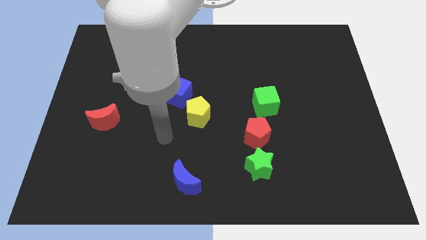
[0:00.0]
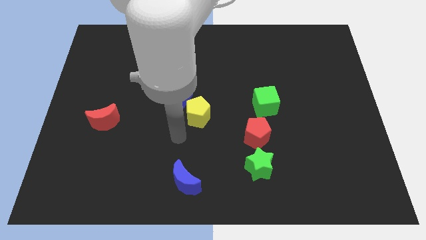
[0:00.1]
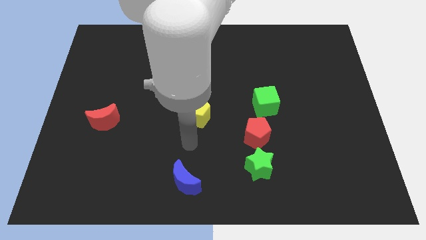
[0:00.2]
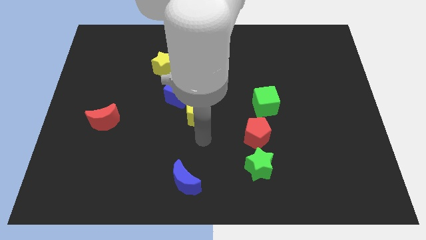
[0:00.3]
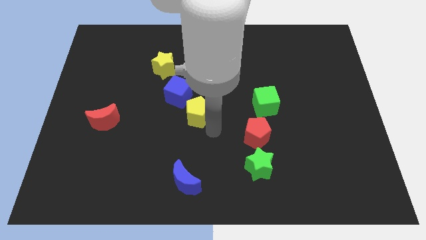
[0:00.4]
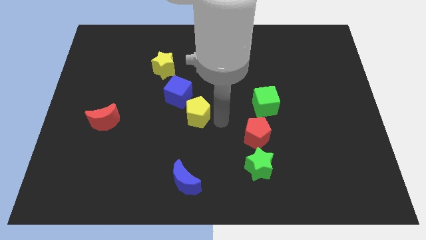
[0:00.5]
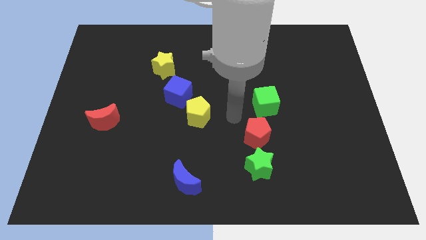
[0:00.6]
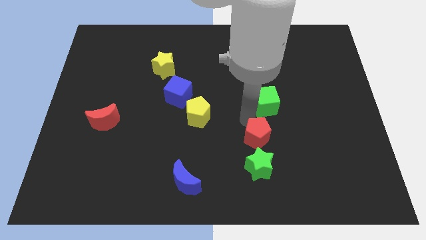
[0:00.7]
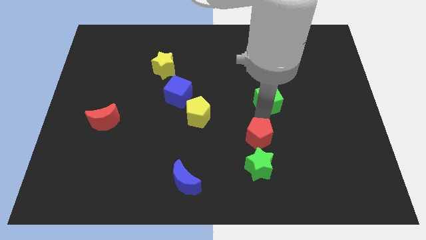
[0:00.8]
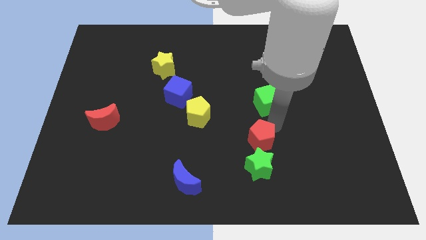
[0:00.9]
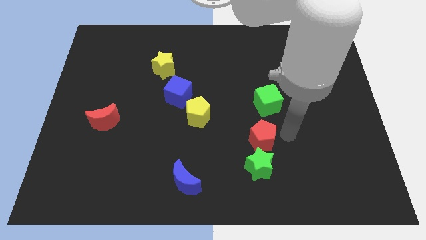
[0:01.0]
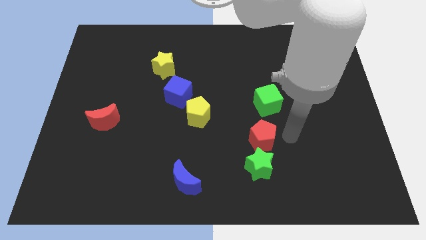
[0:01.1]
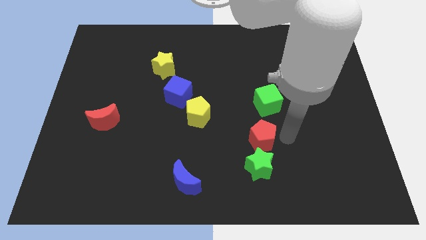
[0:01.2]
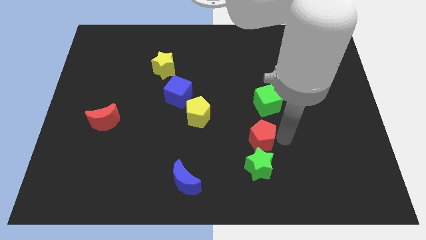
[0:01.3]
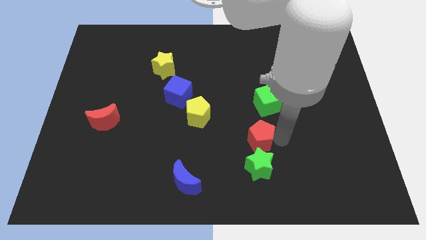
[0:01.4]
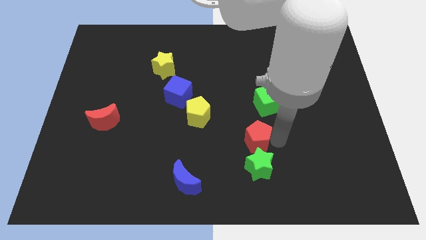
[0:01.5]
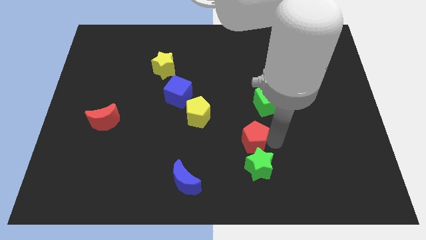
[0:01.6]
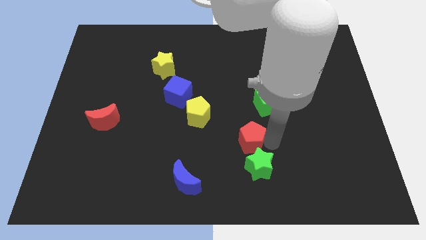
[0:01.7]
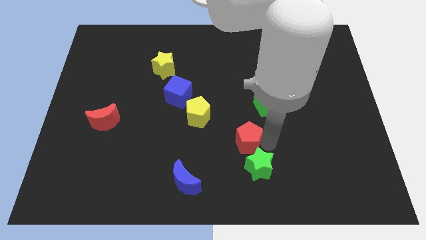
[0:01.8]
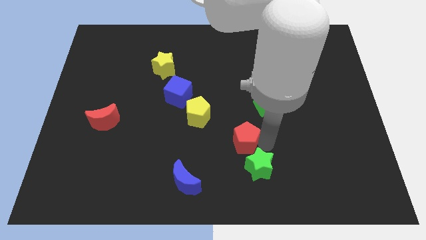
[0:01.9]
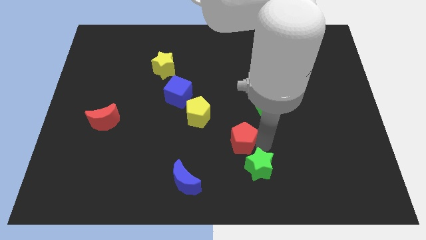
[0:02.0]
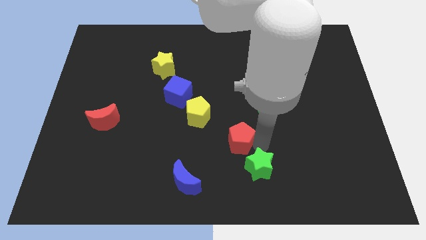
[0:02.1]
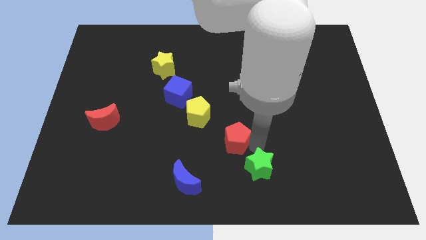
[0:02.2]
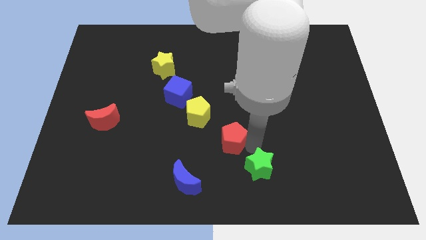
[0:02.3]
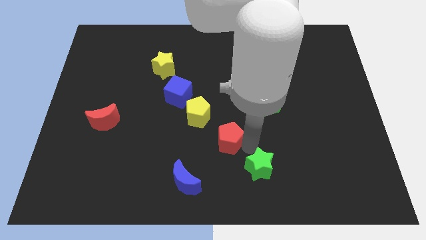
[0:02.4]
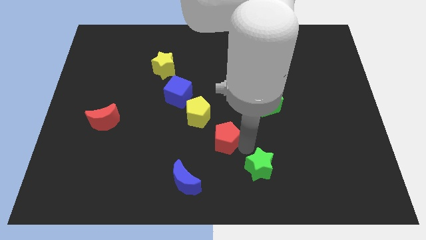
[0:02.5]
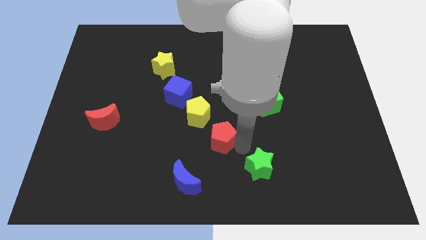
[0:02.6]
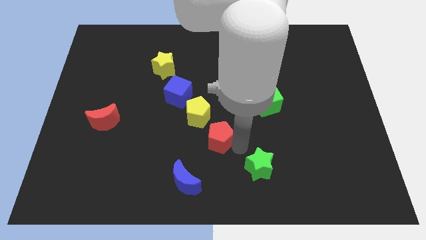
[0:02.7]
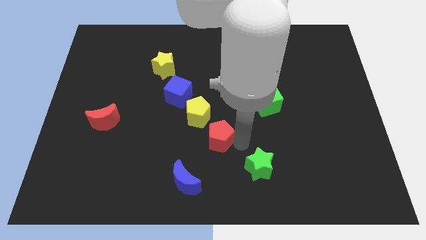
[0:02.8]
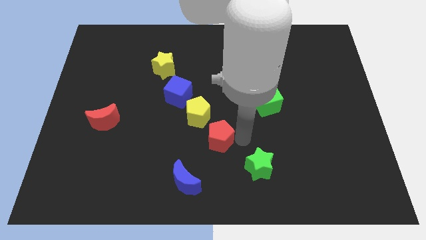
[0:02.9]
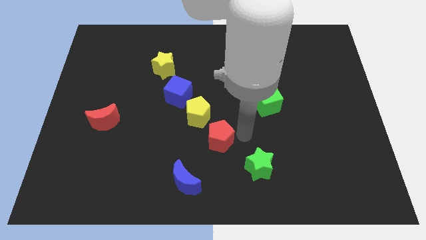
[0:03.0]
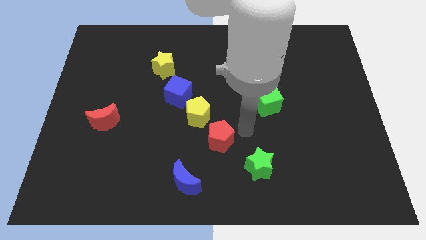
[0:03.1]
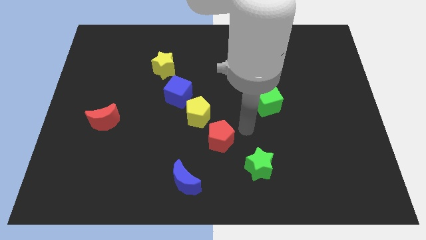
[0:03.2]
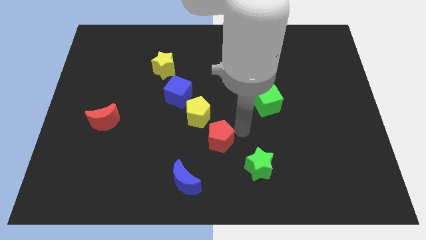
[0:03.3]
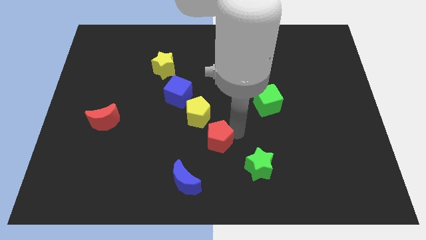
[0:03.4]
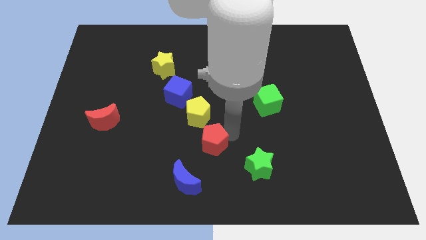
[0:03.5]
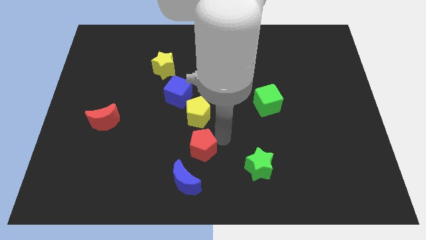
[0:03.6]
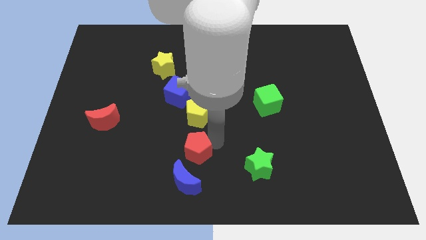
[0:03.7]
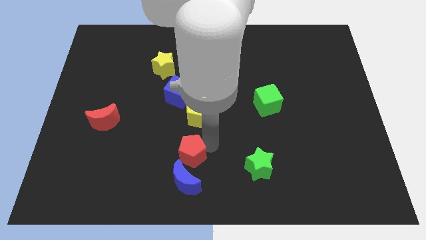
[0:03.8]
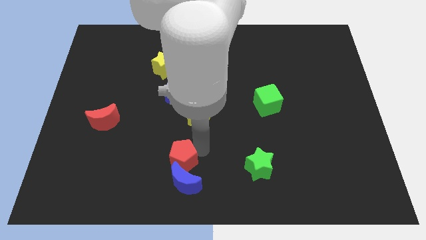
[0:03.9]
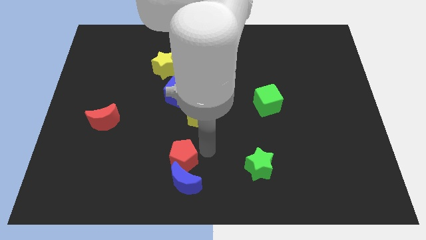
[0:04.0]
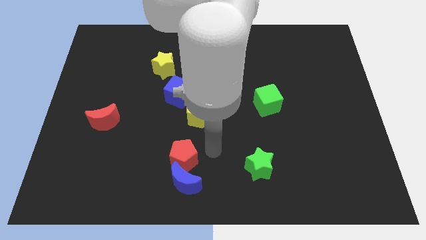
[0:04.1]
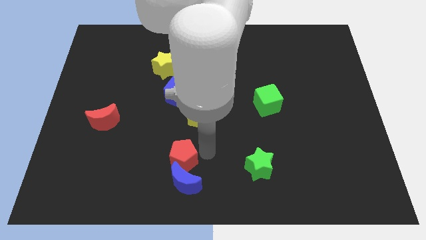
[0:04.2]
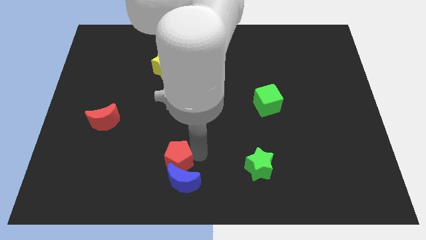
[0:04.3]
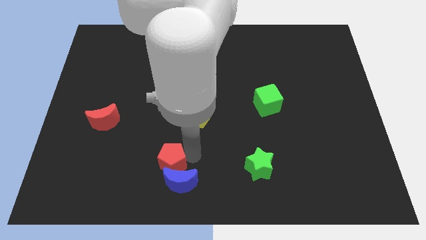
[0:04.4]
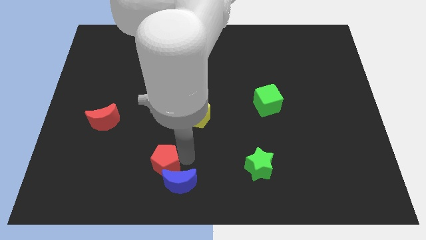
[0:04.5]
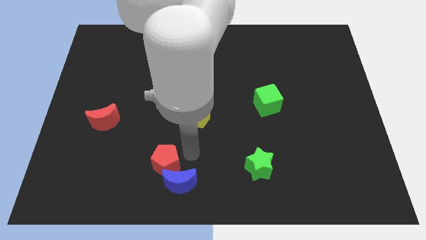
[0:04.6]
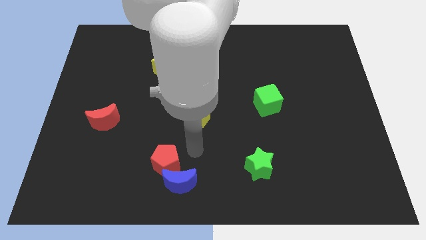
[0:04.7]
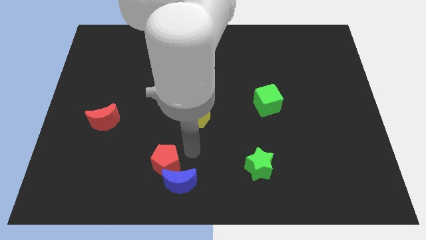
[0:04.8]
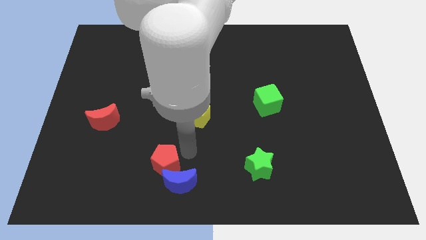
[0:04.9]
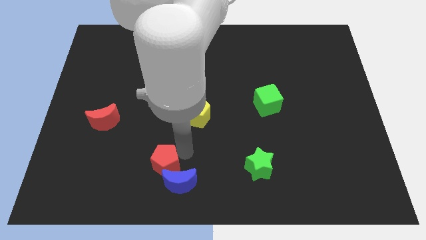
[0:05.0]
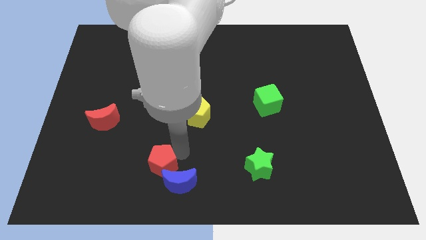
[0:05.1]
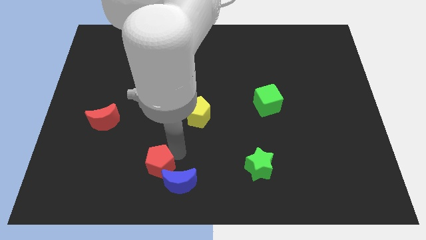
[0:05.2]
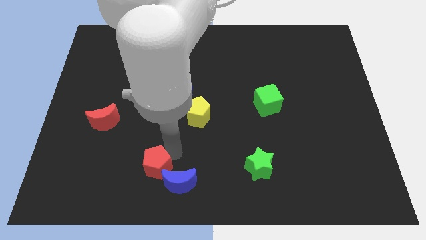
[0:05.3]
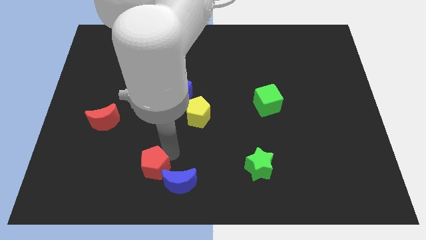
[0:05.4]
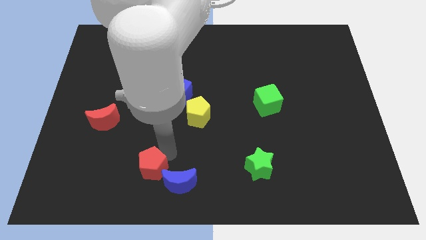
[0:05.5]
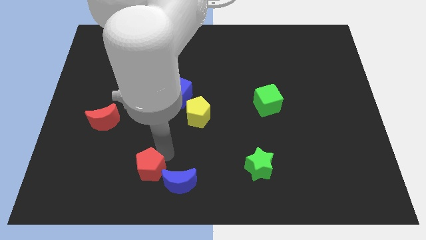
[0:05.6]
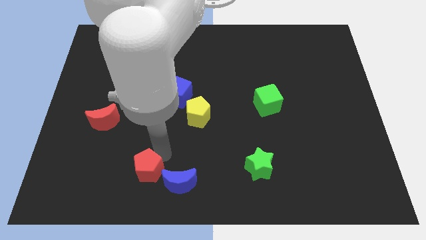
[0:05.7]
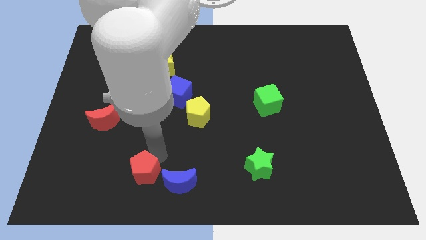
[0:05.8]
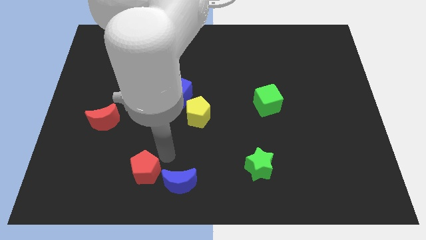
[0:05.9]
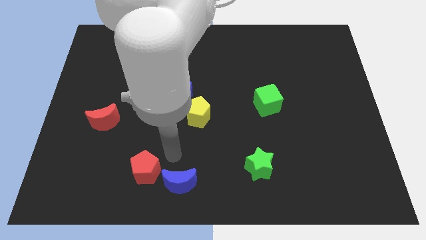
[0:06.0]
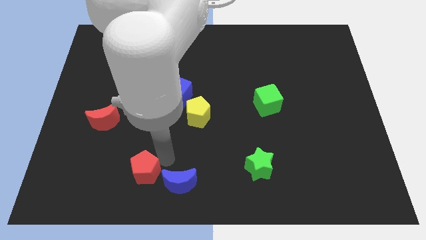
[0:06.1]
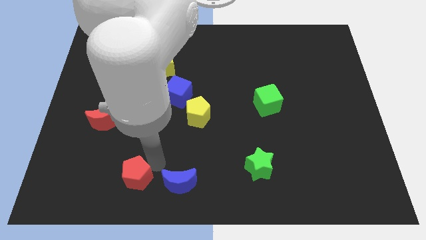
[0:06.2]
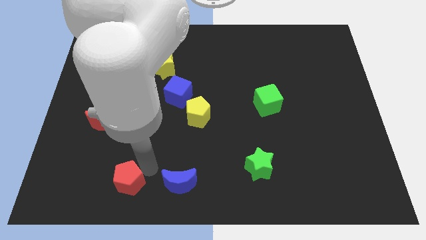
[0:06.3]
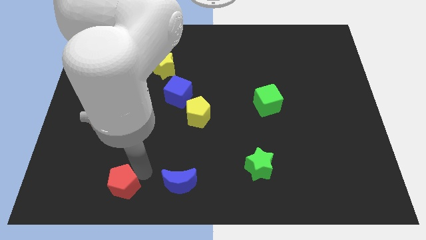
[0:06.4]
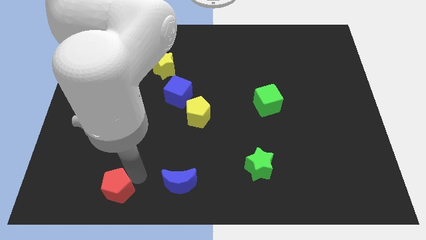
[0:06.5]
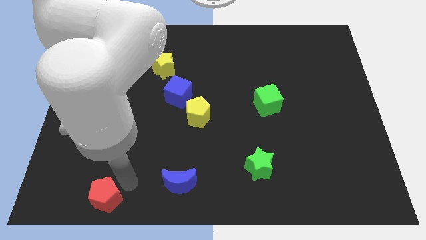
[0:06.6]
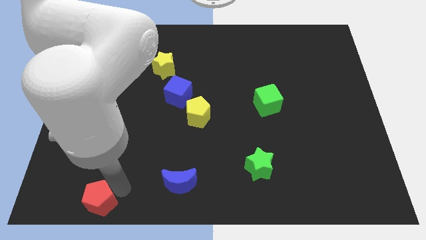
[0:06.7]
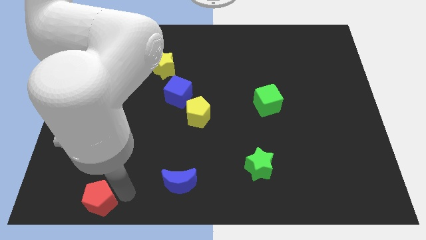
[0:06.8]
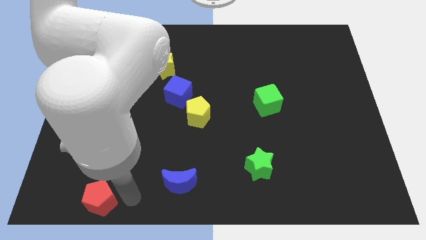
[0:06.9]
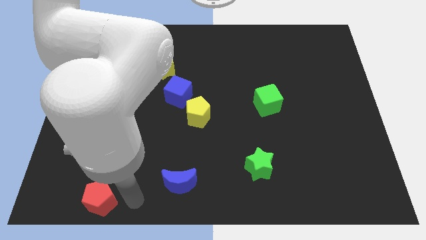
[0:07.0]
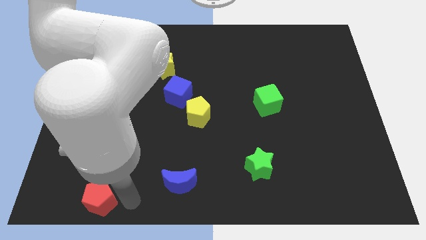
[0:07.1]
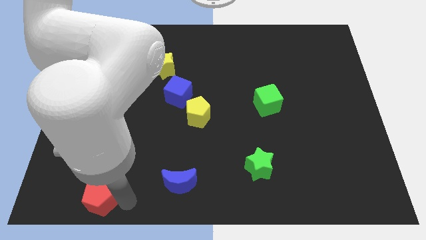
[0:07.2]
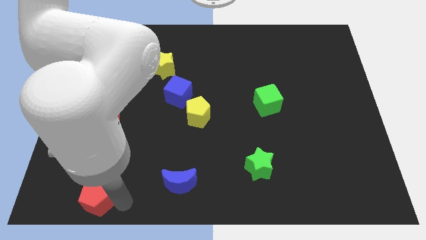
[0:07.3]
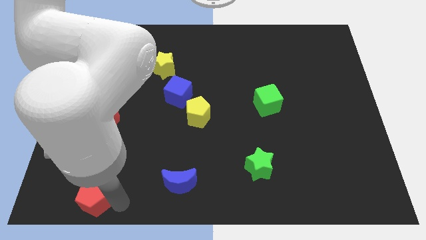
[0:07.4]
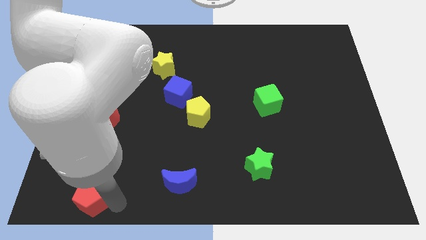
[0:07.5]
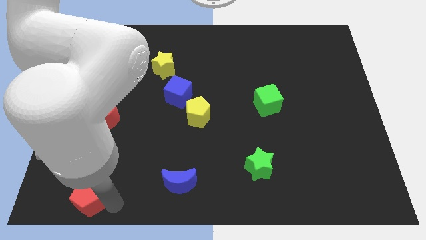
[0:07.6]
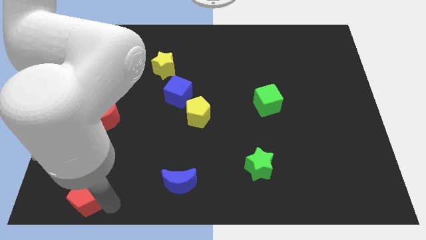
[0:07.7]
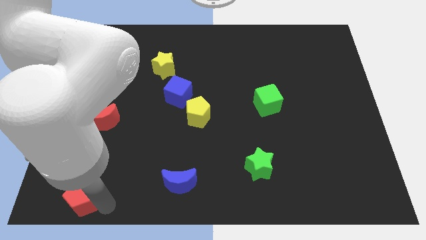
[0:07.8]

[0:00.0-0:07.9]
push the red pentagon to the bottom left
